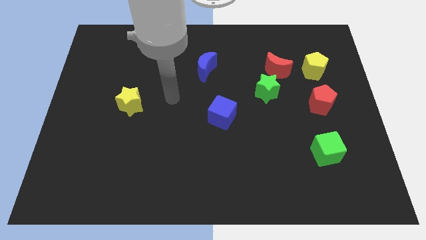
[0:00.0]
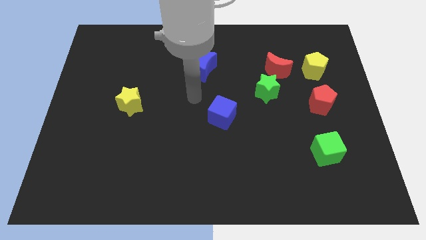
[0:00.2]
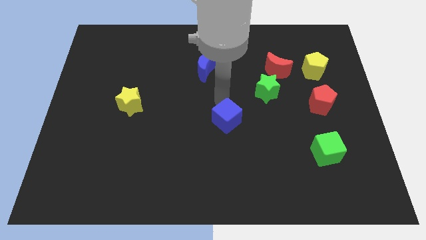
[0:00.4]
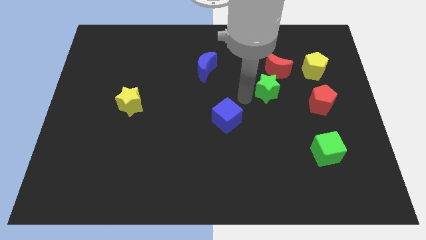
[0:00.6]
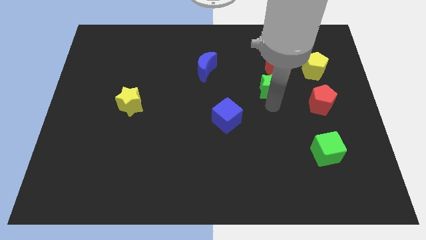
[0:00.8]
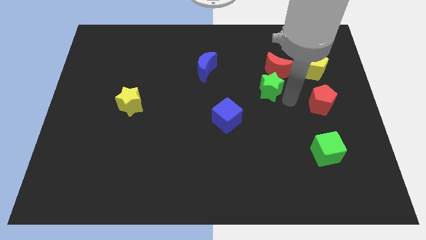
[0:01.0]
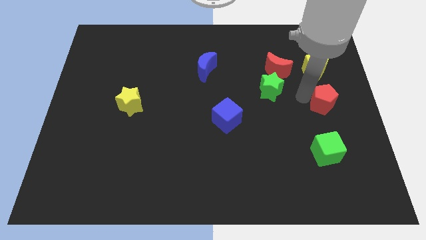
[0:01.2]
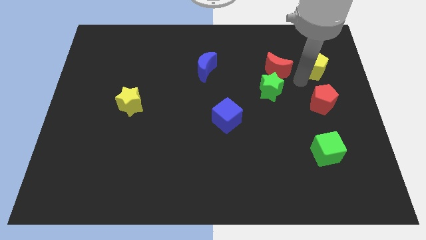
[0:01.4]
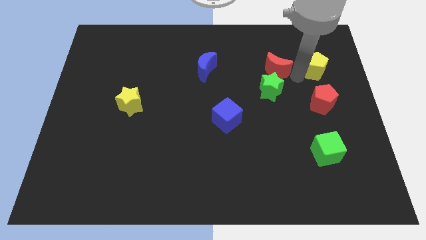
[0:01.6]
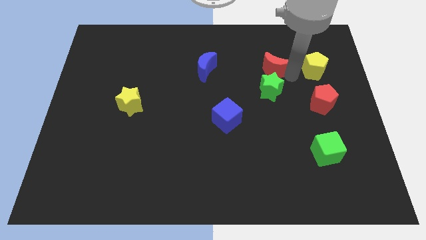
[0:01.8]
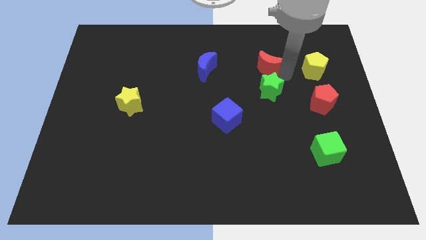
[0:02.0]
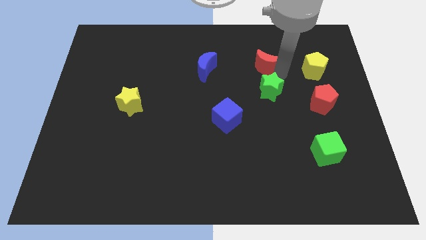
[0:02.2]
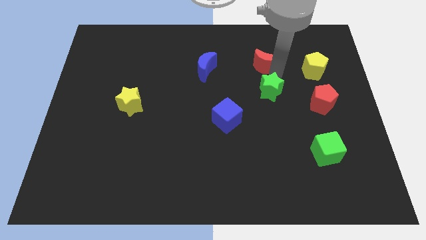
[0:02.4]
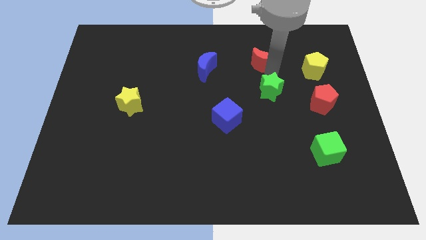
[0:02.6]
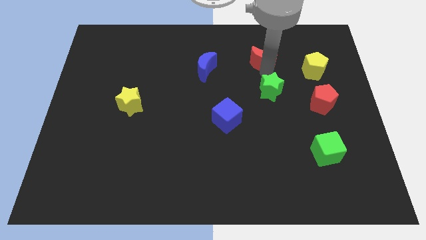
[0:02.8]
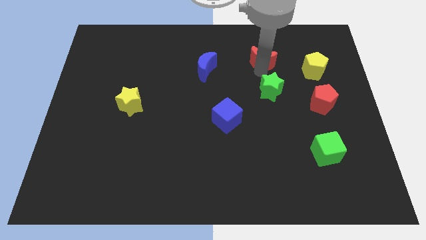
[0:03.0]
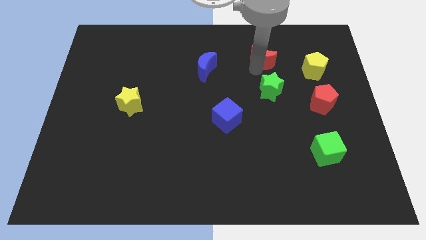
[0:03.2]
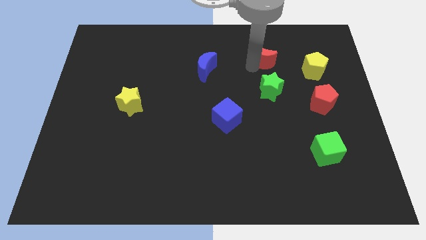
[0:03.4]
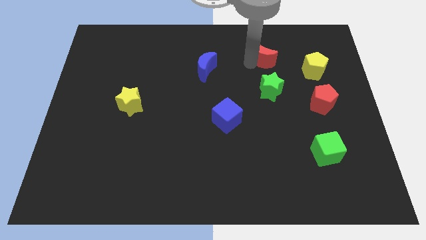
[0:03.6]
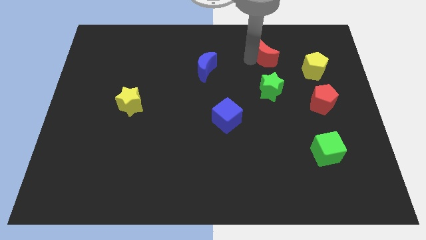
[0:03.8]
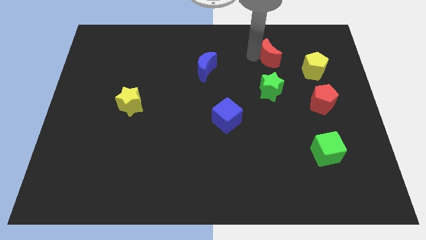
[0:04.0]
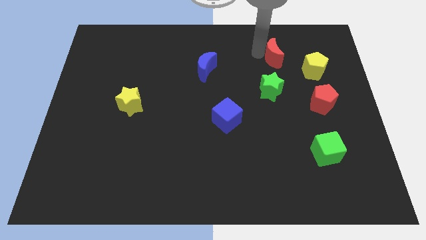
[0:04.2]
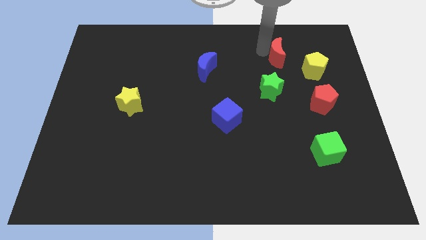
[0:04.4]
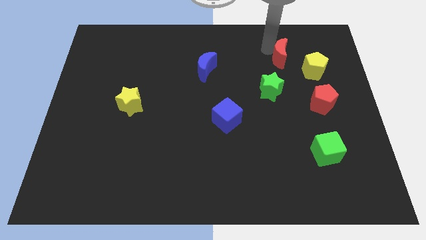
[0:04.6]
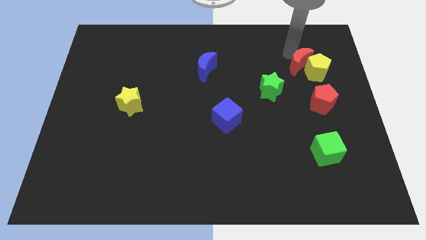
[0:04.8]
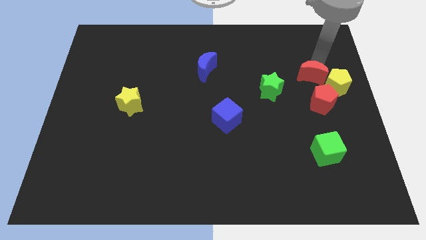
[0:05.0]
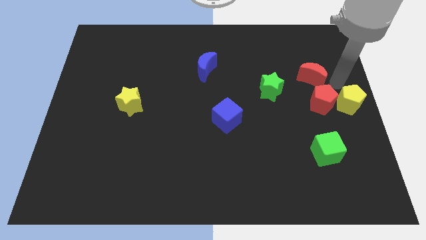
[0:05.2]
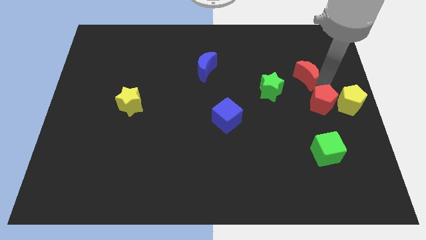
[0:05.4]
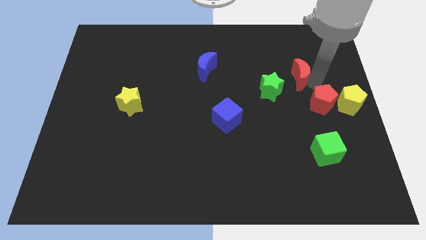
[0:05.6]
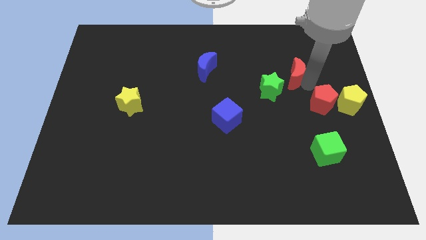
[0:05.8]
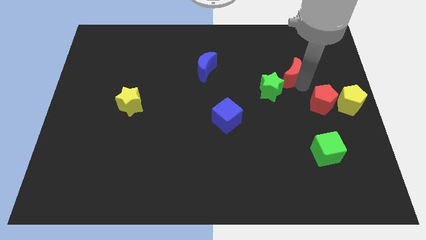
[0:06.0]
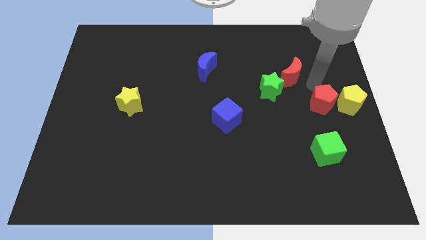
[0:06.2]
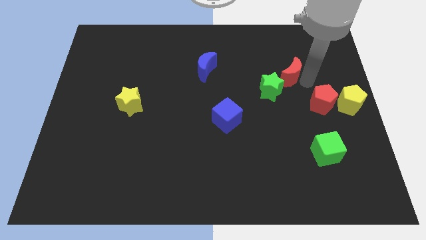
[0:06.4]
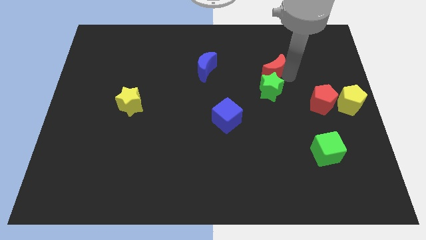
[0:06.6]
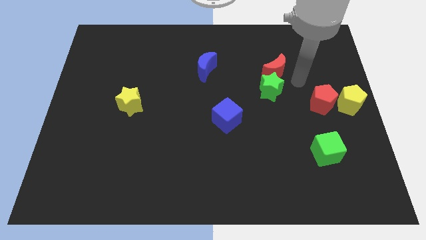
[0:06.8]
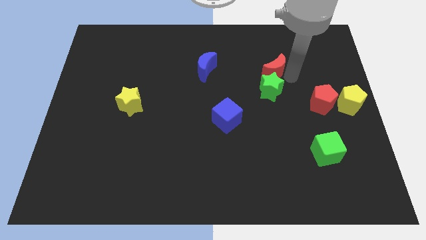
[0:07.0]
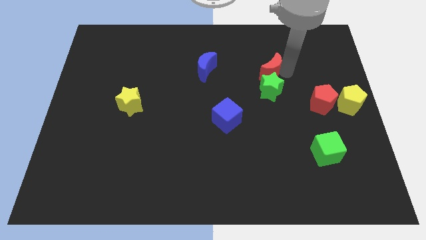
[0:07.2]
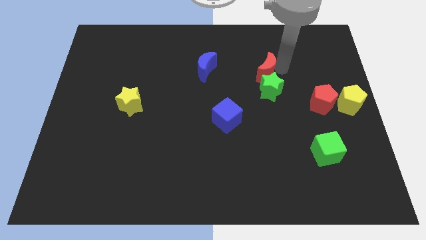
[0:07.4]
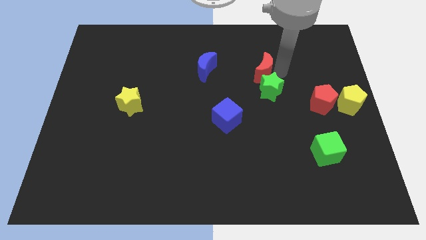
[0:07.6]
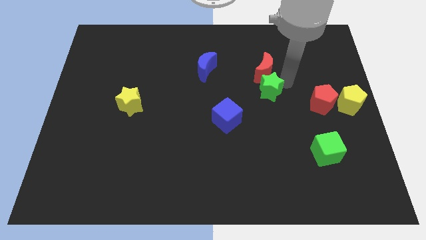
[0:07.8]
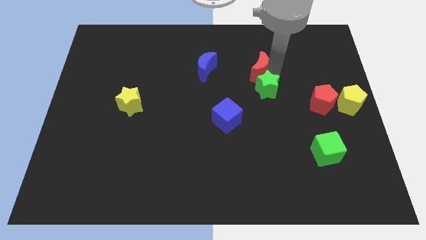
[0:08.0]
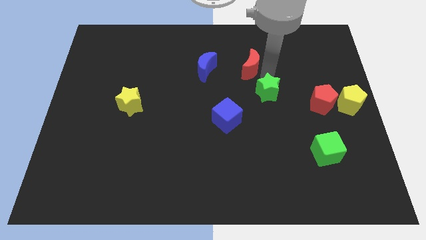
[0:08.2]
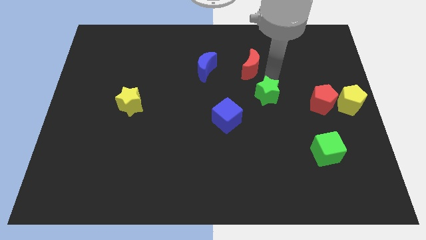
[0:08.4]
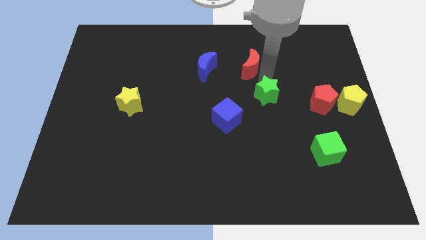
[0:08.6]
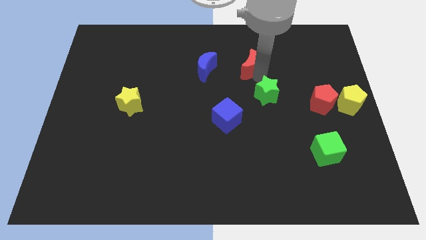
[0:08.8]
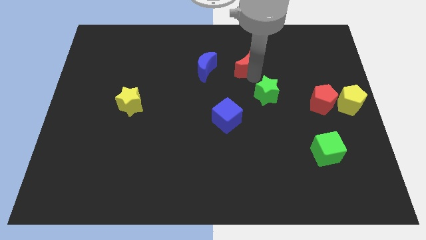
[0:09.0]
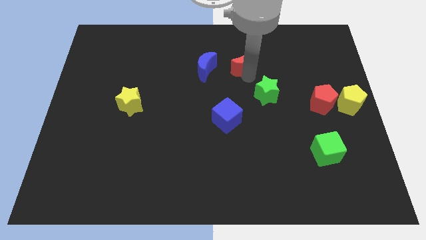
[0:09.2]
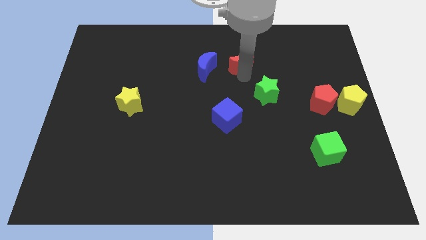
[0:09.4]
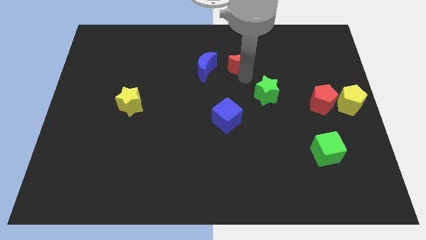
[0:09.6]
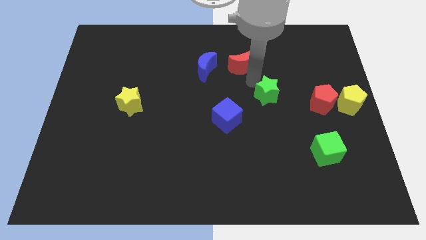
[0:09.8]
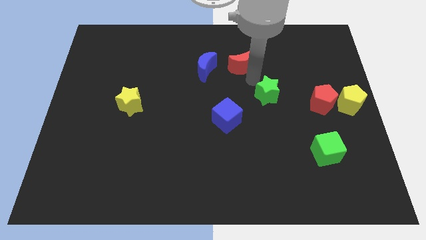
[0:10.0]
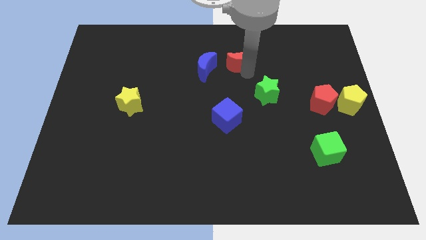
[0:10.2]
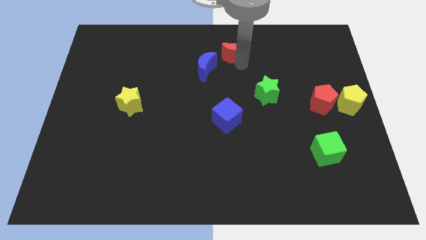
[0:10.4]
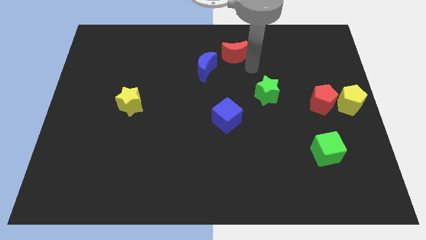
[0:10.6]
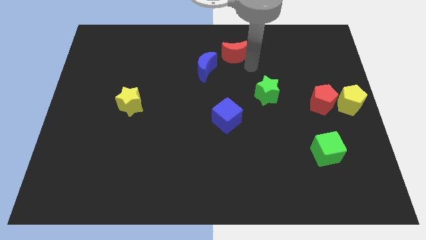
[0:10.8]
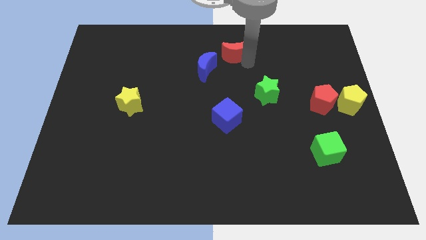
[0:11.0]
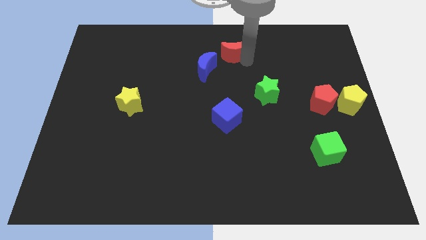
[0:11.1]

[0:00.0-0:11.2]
put the red moon to the top side

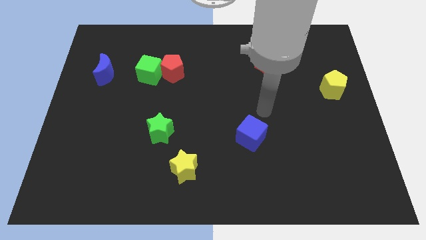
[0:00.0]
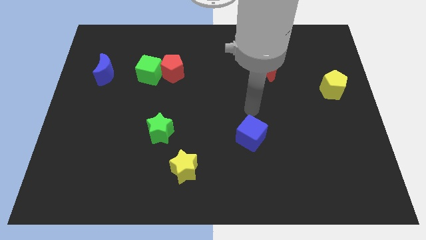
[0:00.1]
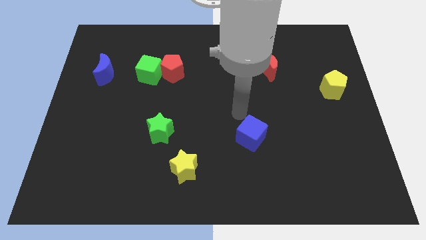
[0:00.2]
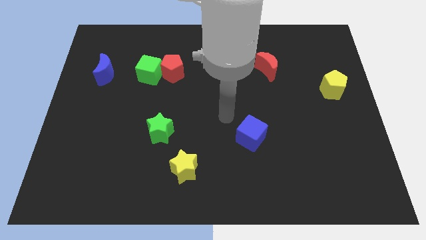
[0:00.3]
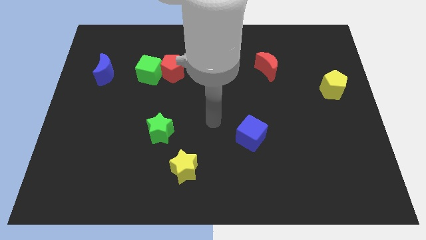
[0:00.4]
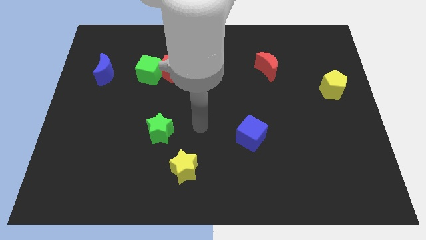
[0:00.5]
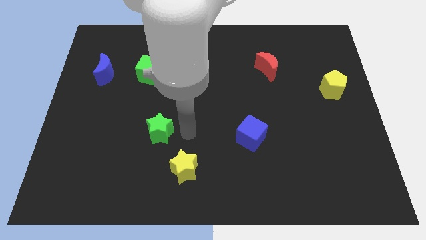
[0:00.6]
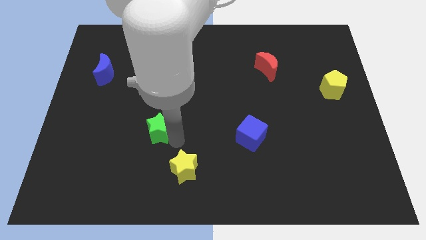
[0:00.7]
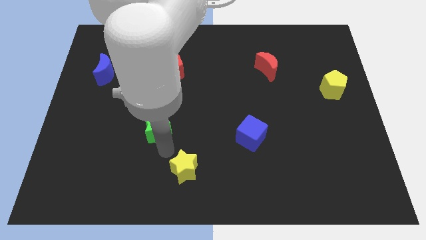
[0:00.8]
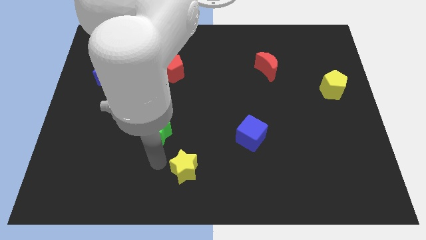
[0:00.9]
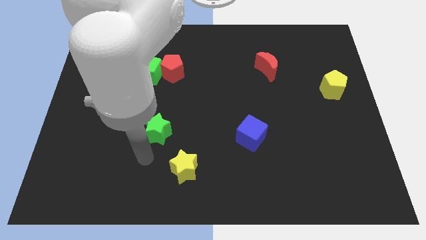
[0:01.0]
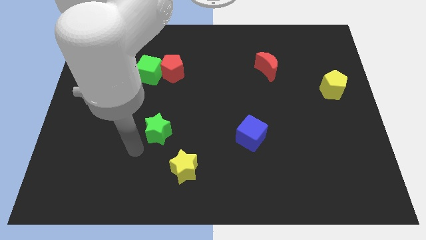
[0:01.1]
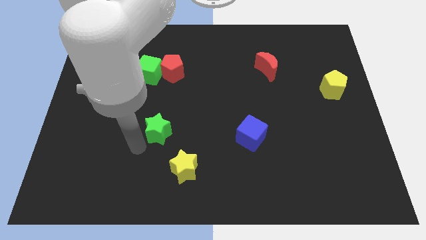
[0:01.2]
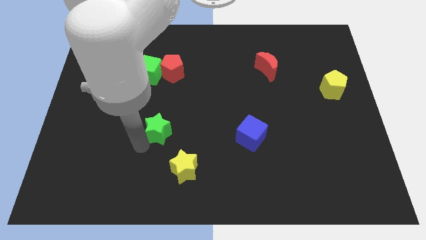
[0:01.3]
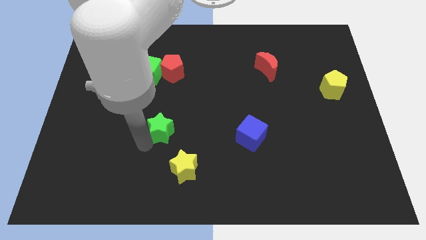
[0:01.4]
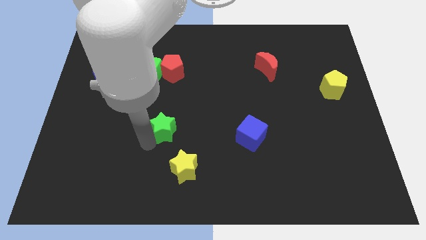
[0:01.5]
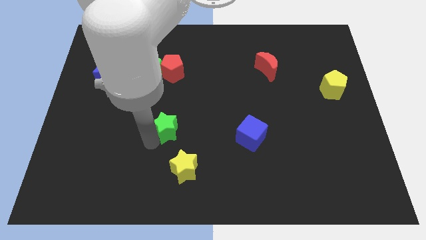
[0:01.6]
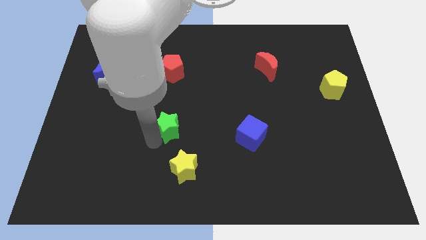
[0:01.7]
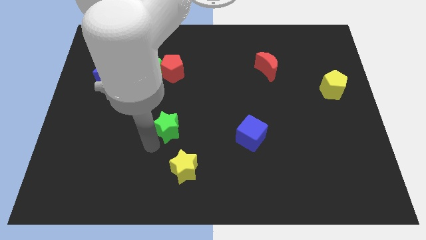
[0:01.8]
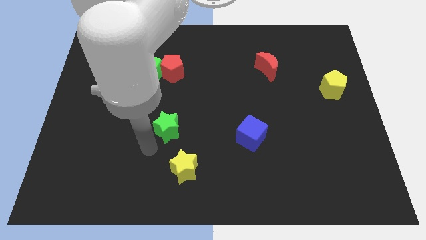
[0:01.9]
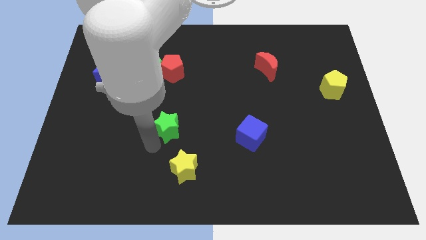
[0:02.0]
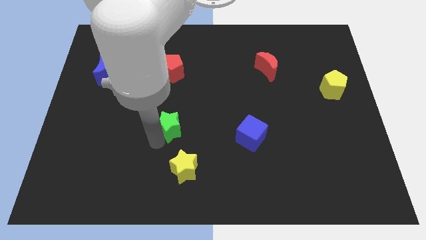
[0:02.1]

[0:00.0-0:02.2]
put the green star to the center
